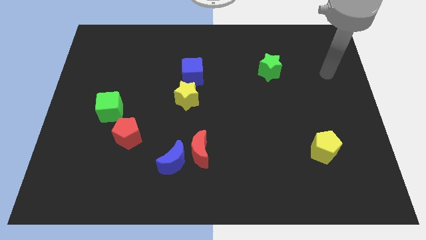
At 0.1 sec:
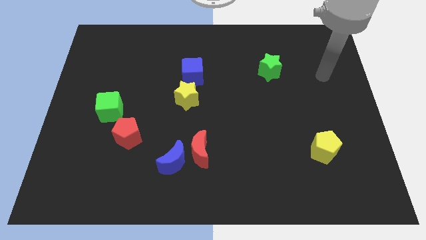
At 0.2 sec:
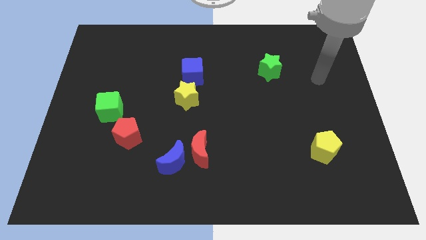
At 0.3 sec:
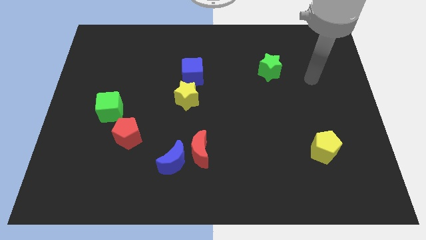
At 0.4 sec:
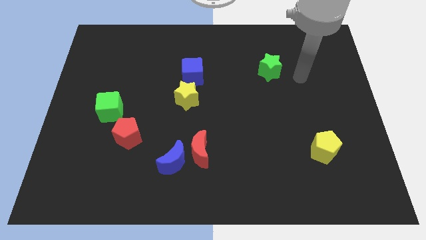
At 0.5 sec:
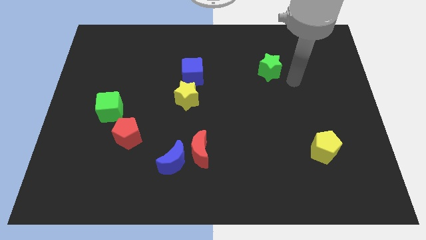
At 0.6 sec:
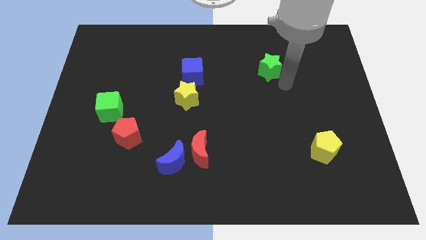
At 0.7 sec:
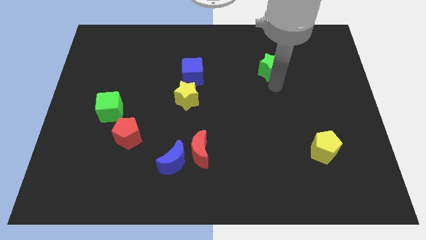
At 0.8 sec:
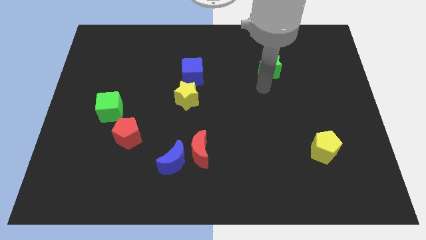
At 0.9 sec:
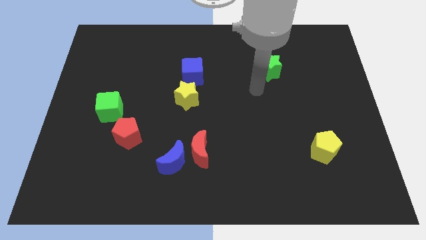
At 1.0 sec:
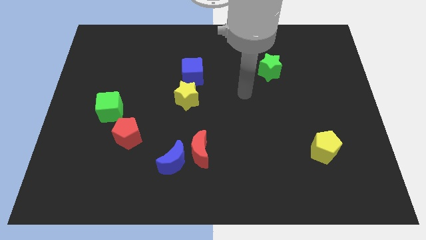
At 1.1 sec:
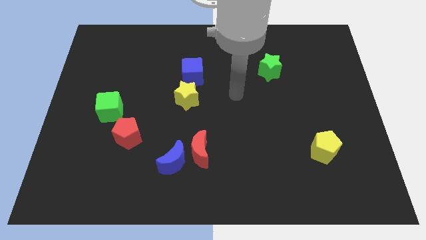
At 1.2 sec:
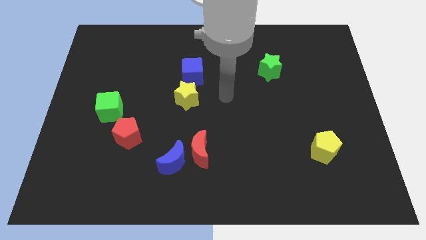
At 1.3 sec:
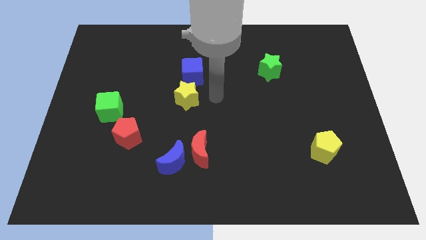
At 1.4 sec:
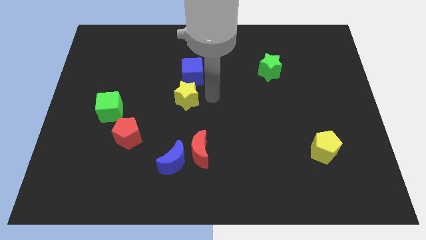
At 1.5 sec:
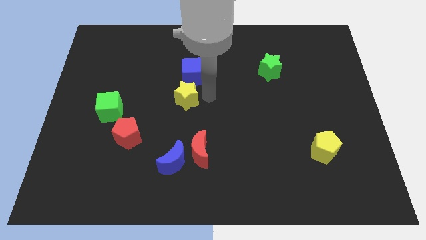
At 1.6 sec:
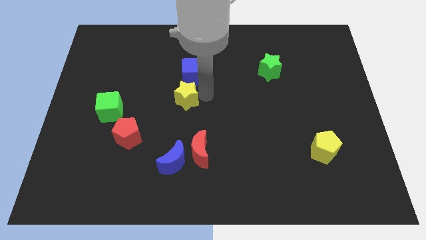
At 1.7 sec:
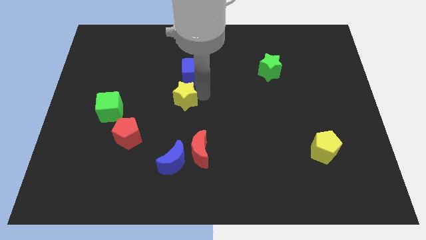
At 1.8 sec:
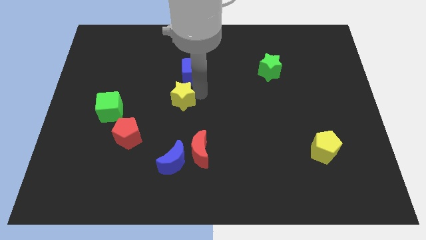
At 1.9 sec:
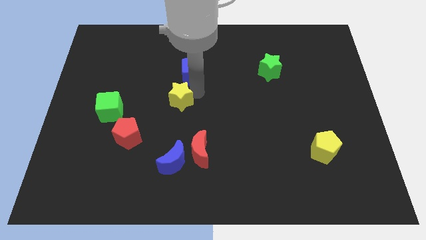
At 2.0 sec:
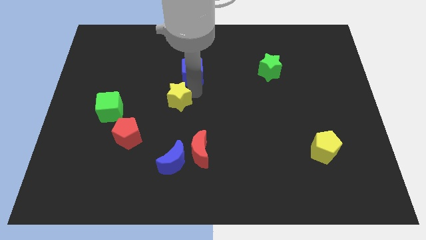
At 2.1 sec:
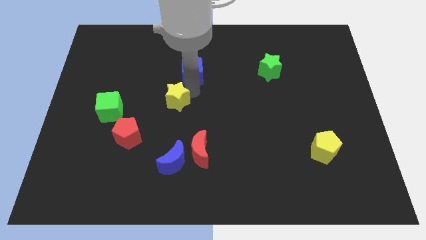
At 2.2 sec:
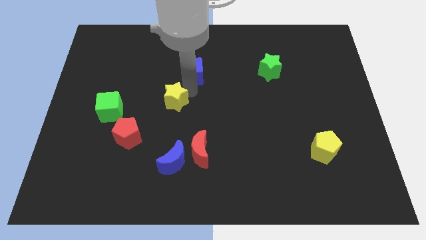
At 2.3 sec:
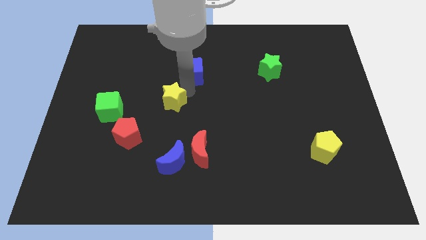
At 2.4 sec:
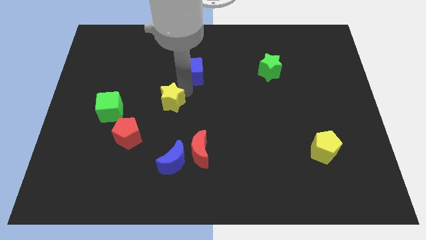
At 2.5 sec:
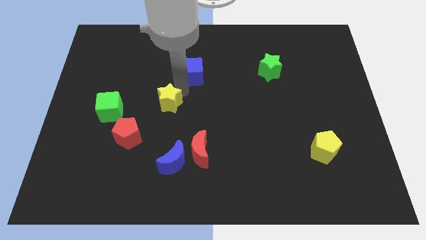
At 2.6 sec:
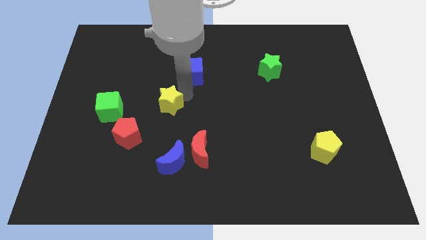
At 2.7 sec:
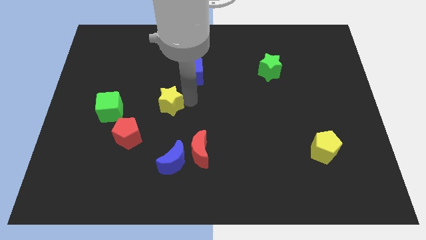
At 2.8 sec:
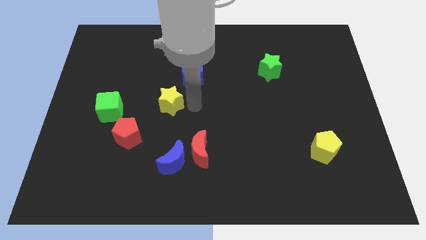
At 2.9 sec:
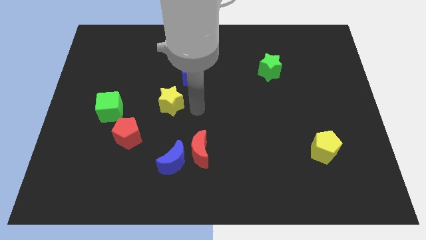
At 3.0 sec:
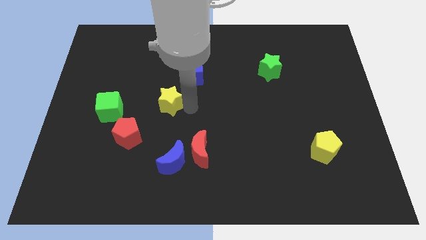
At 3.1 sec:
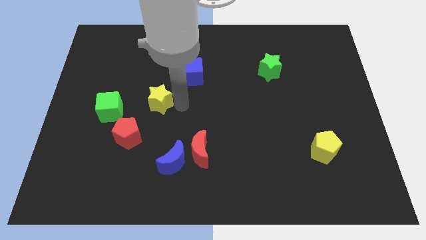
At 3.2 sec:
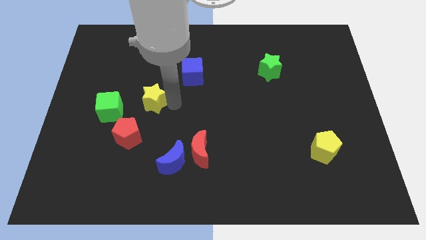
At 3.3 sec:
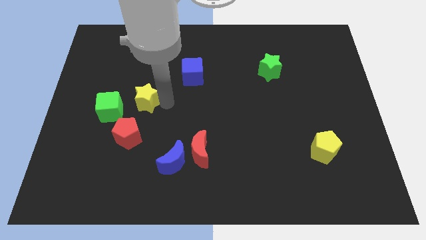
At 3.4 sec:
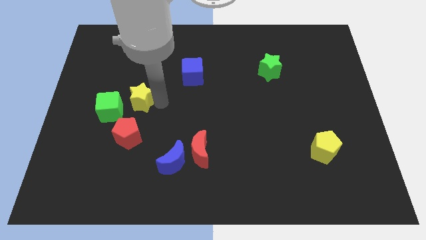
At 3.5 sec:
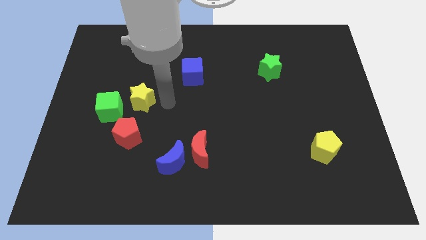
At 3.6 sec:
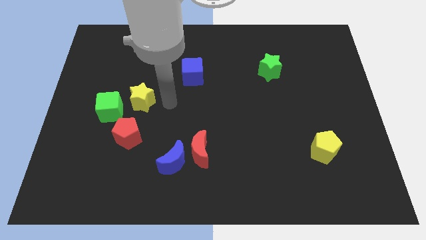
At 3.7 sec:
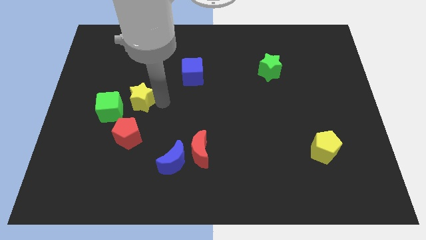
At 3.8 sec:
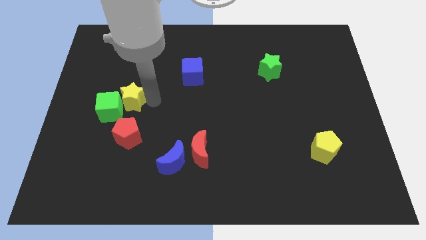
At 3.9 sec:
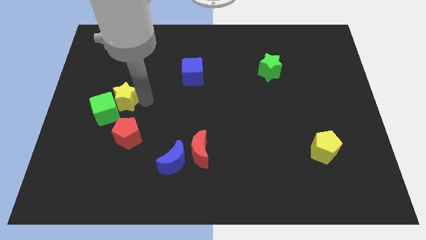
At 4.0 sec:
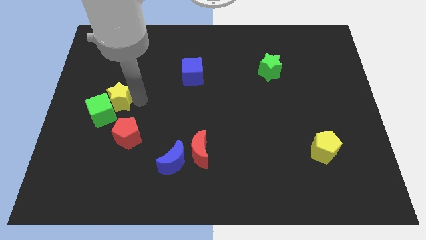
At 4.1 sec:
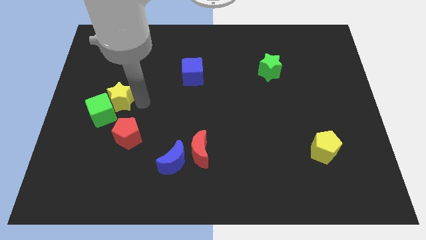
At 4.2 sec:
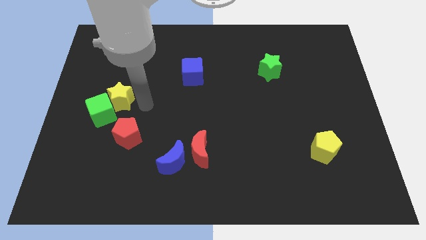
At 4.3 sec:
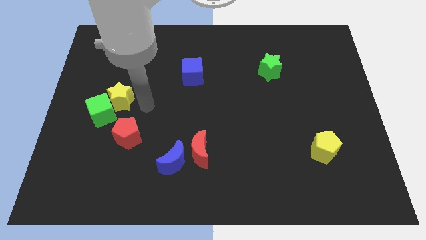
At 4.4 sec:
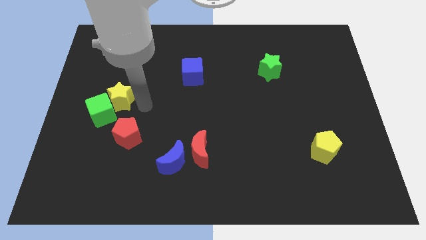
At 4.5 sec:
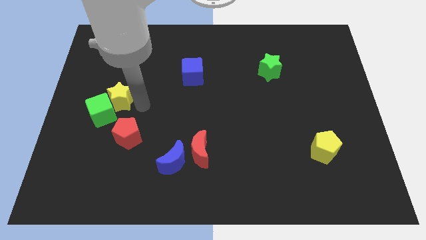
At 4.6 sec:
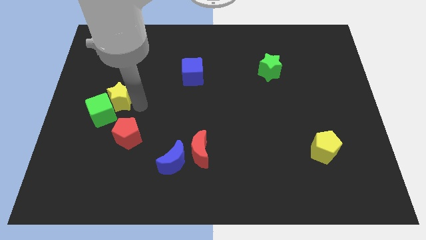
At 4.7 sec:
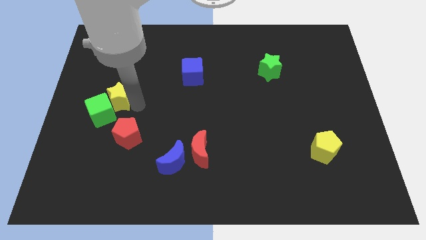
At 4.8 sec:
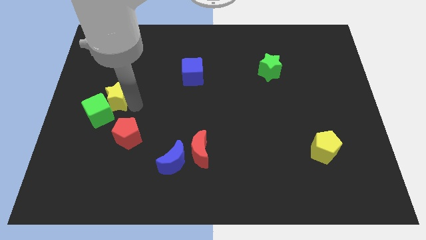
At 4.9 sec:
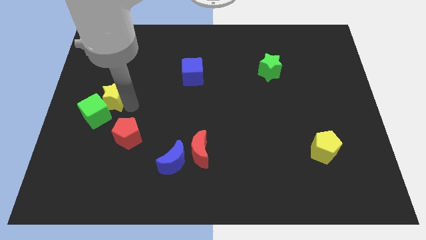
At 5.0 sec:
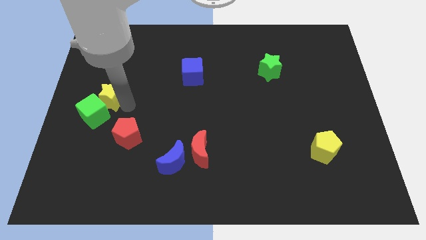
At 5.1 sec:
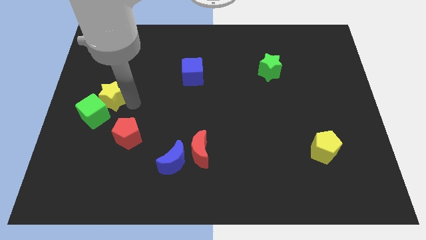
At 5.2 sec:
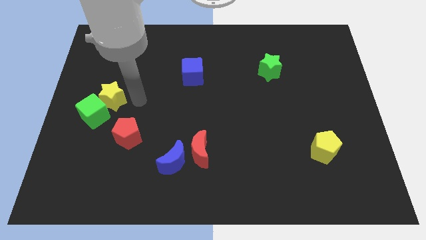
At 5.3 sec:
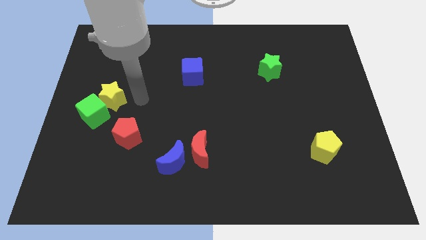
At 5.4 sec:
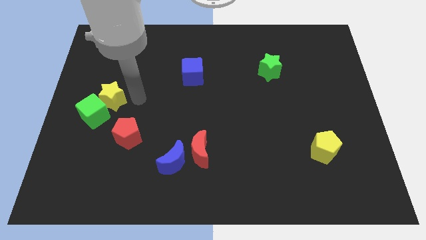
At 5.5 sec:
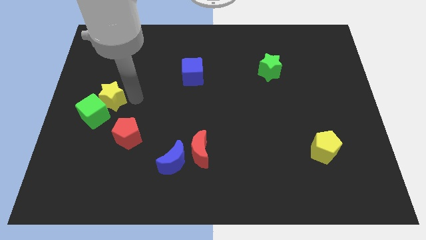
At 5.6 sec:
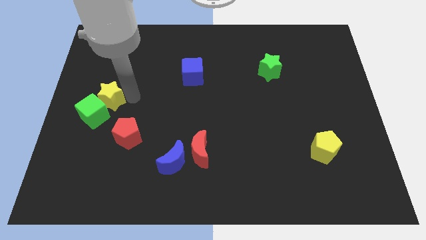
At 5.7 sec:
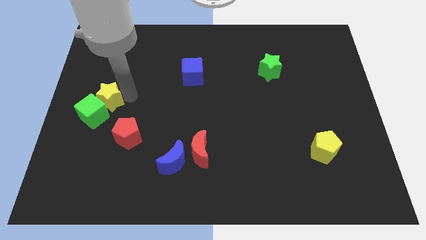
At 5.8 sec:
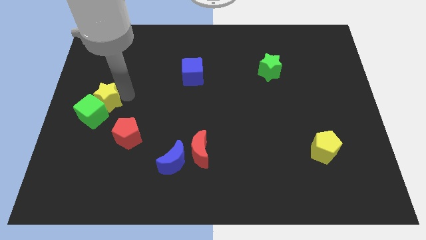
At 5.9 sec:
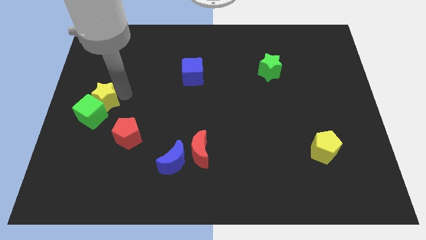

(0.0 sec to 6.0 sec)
push the yellow star to the left side

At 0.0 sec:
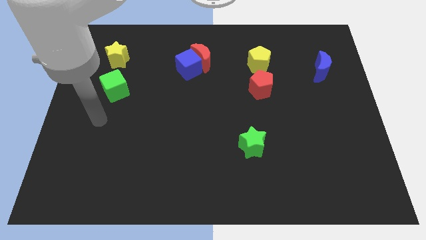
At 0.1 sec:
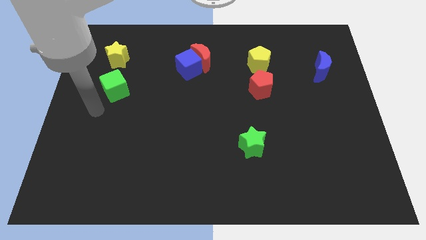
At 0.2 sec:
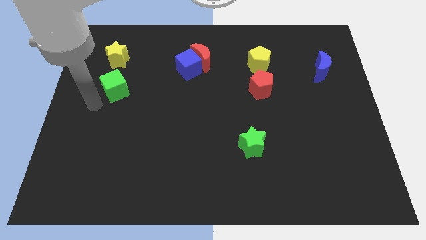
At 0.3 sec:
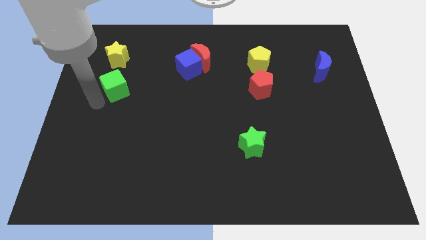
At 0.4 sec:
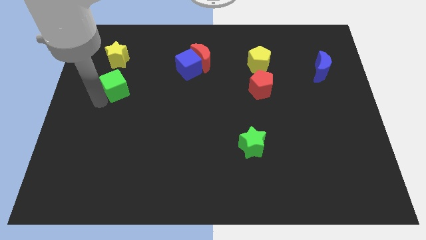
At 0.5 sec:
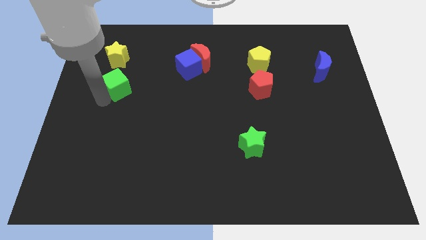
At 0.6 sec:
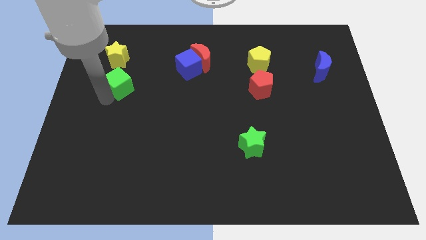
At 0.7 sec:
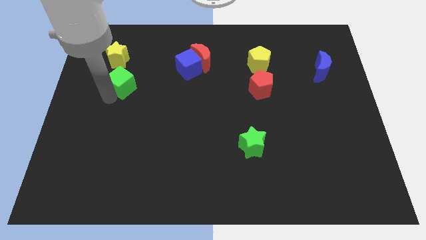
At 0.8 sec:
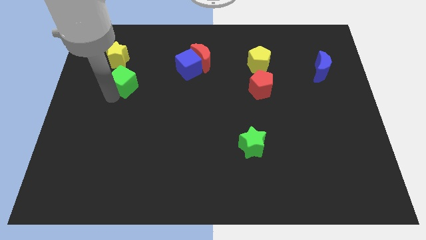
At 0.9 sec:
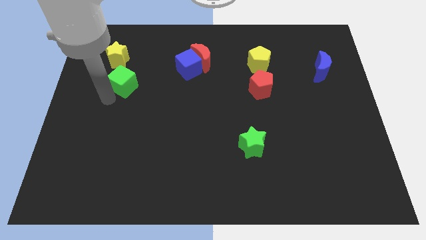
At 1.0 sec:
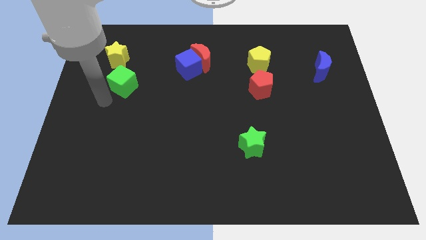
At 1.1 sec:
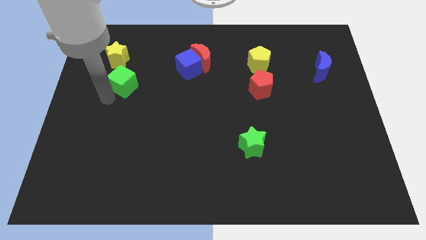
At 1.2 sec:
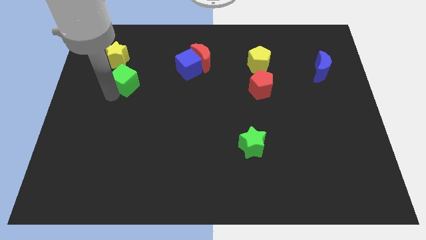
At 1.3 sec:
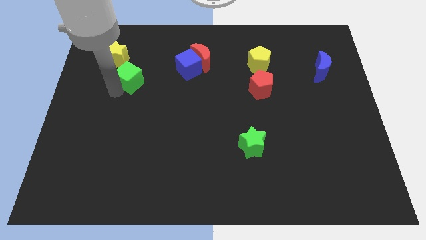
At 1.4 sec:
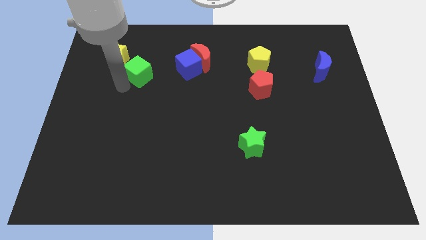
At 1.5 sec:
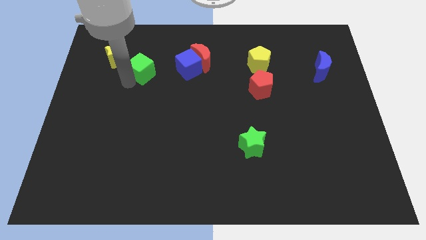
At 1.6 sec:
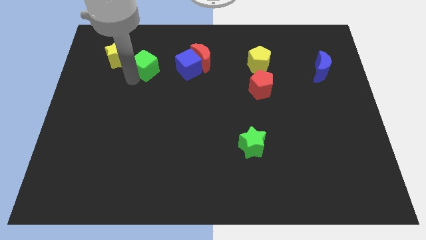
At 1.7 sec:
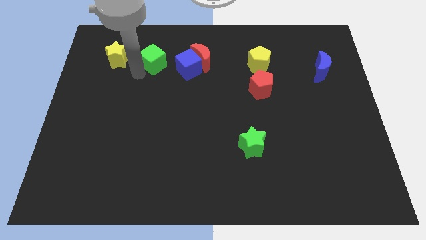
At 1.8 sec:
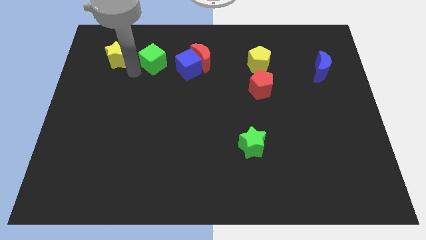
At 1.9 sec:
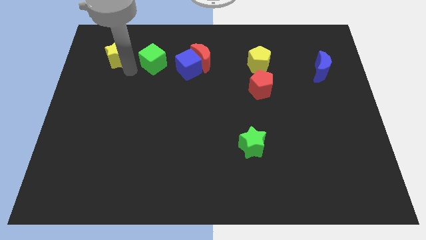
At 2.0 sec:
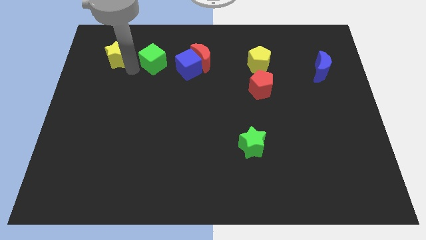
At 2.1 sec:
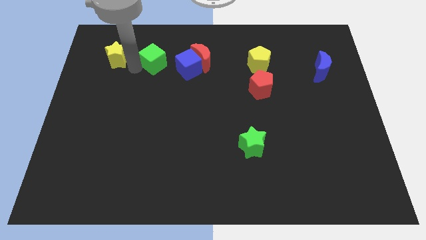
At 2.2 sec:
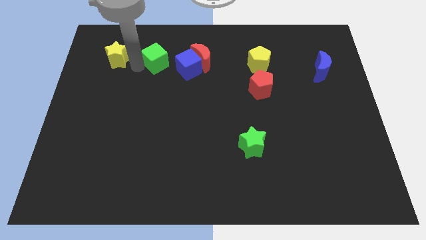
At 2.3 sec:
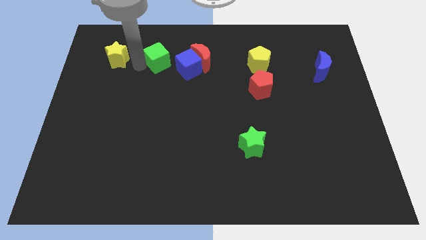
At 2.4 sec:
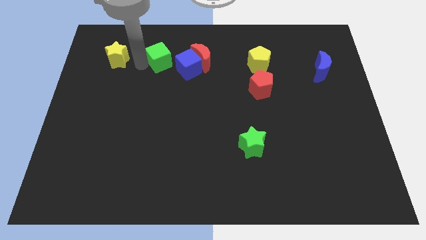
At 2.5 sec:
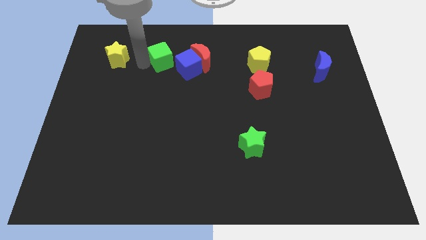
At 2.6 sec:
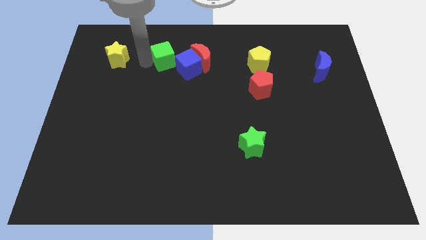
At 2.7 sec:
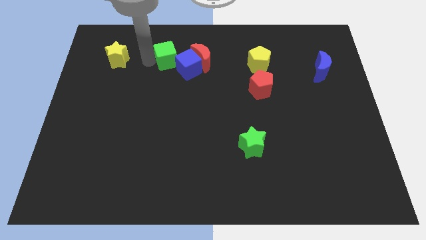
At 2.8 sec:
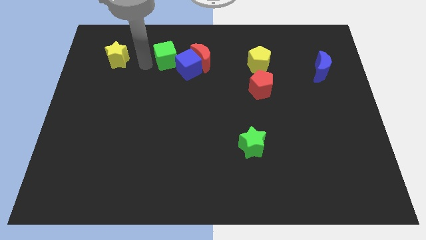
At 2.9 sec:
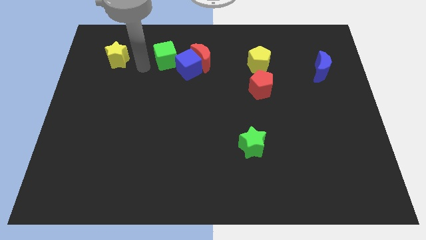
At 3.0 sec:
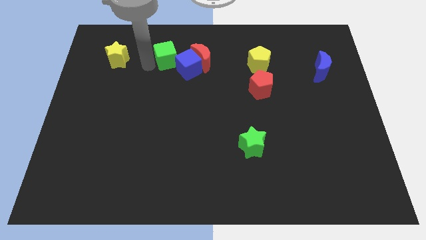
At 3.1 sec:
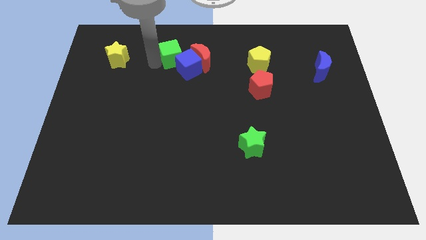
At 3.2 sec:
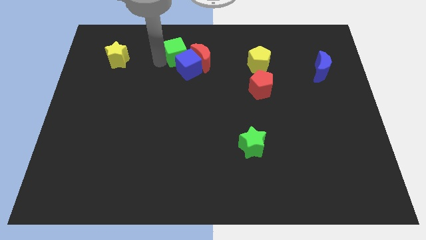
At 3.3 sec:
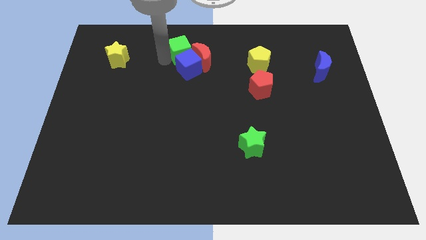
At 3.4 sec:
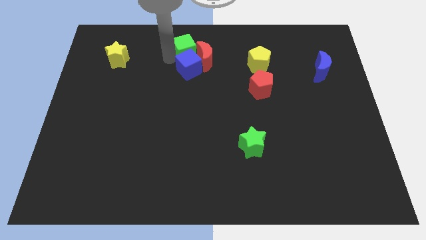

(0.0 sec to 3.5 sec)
push the green cube to the towards your base
